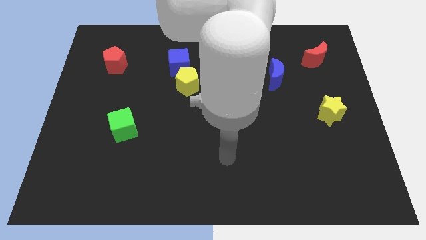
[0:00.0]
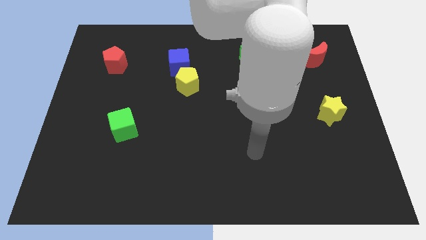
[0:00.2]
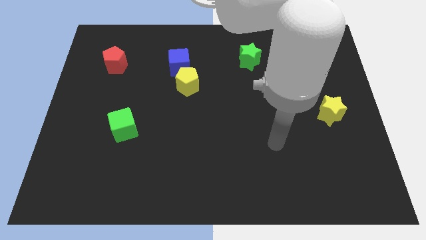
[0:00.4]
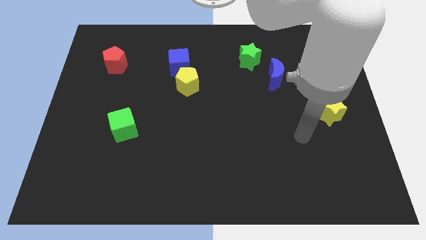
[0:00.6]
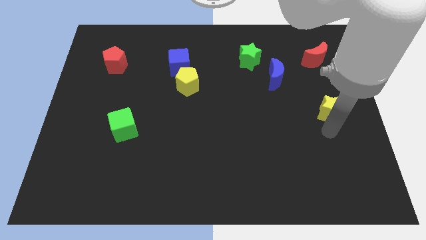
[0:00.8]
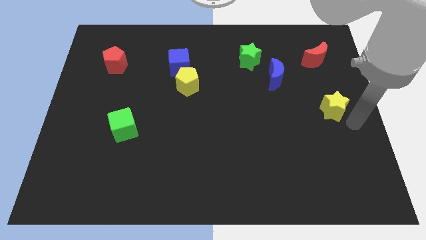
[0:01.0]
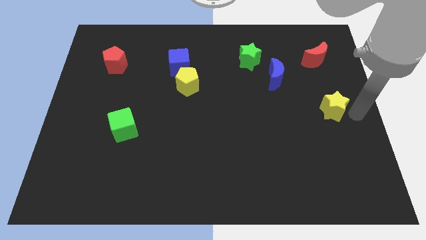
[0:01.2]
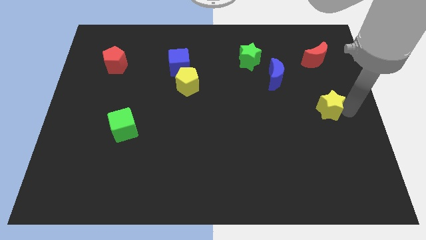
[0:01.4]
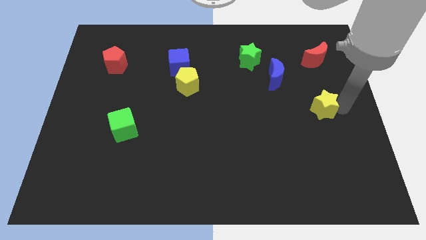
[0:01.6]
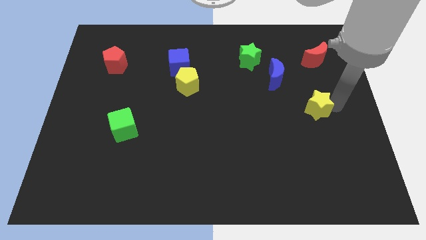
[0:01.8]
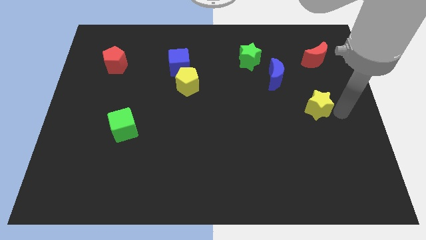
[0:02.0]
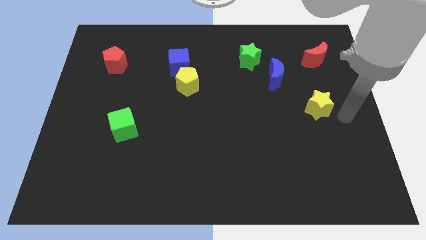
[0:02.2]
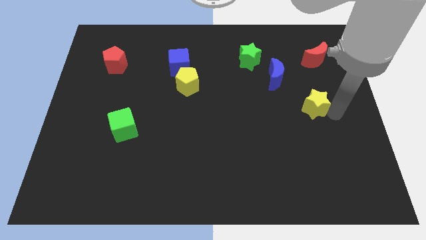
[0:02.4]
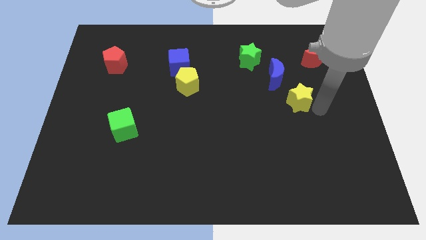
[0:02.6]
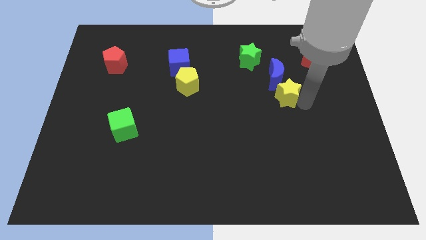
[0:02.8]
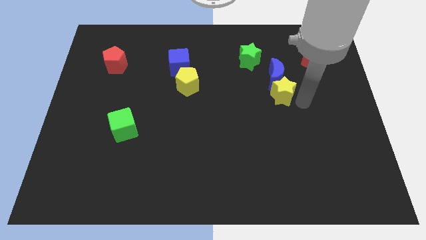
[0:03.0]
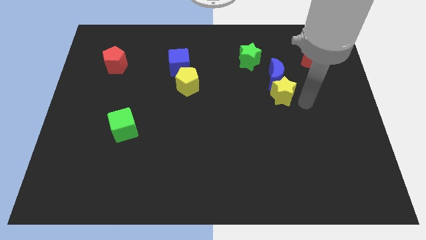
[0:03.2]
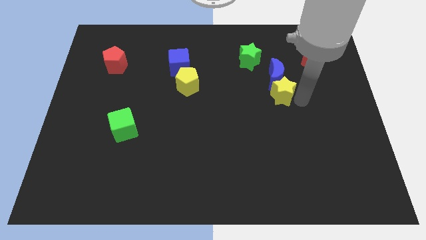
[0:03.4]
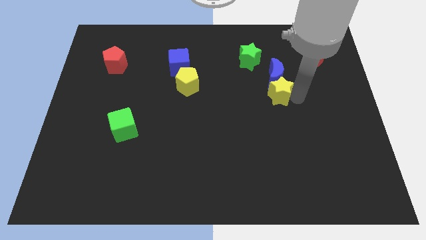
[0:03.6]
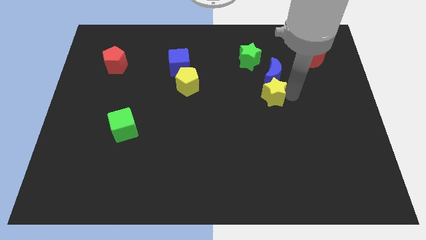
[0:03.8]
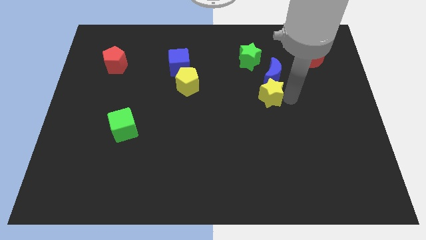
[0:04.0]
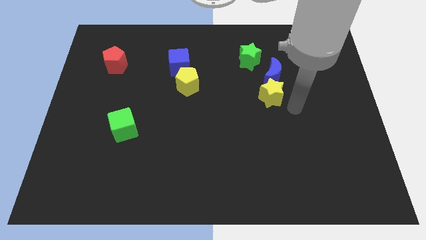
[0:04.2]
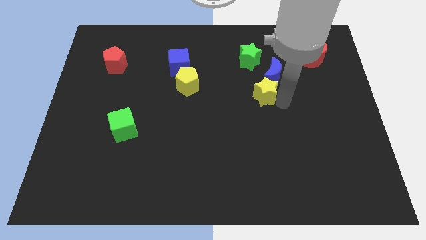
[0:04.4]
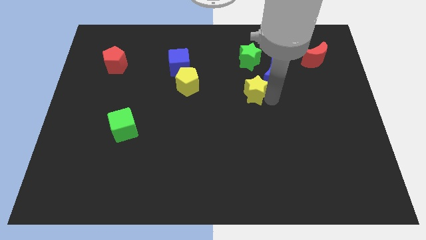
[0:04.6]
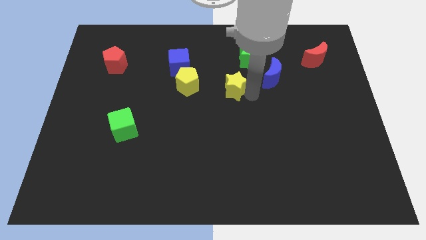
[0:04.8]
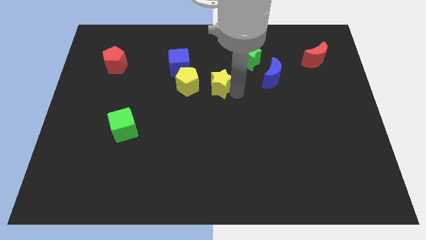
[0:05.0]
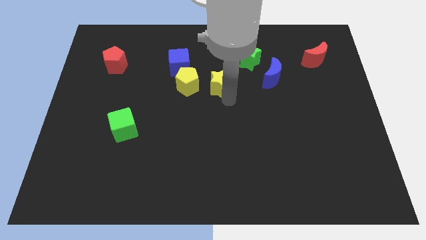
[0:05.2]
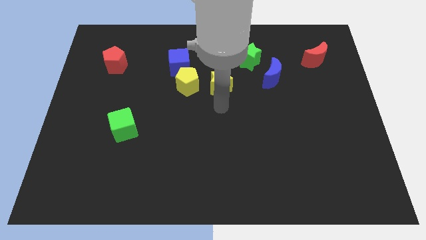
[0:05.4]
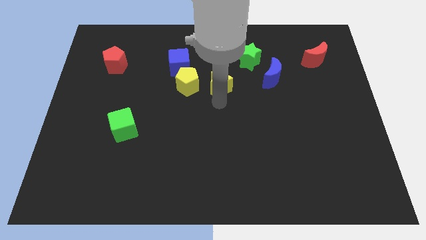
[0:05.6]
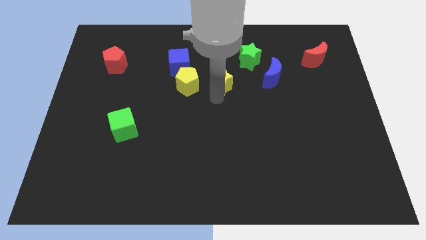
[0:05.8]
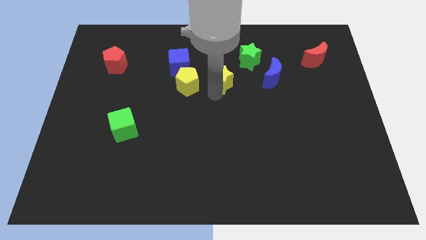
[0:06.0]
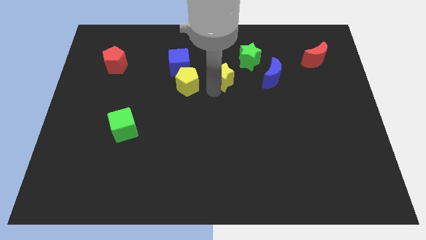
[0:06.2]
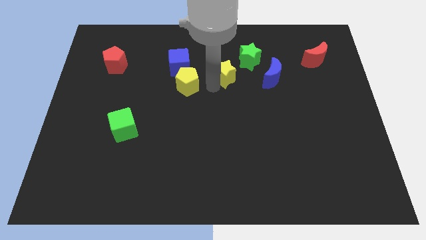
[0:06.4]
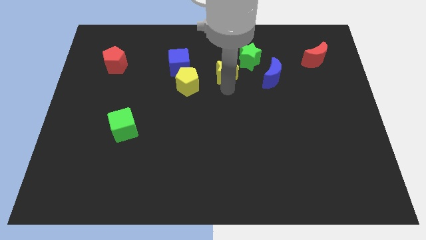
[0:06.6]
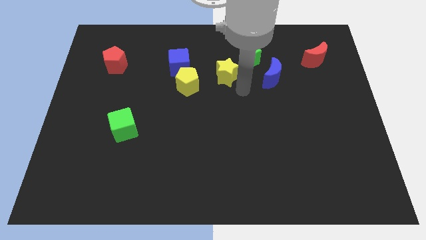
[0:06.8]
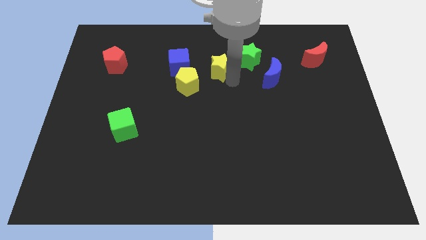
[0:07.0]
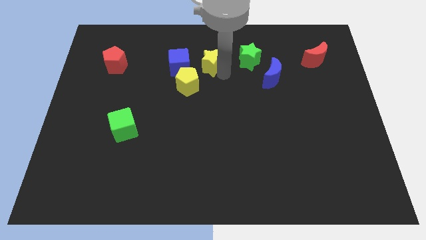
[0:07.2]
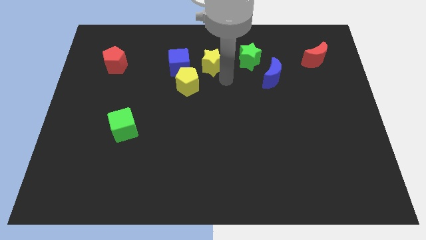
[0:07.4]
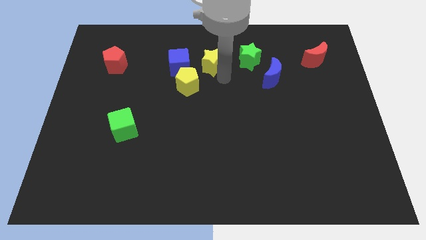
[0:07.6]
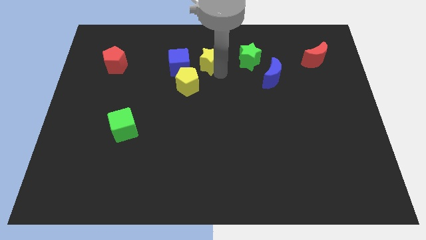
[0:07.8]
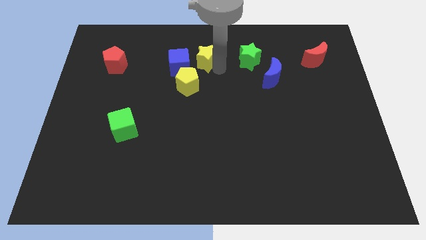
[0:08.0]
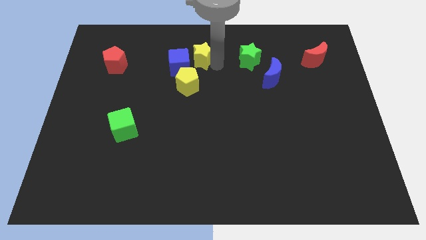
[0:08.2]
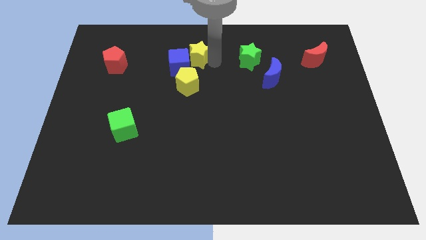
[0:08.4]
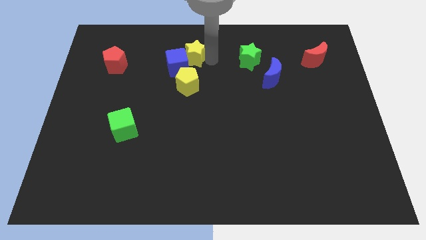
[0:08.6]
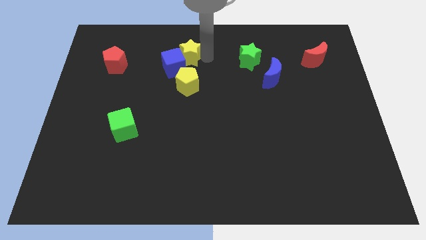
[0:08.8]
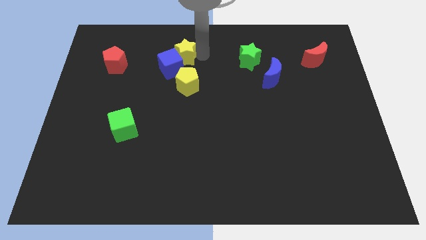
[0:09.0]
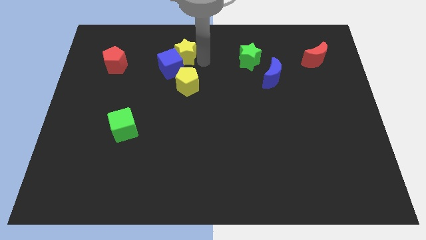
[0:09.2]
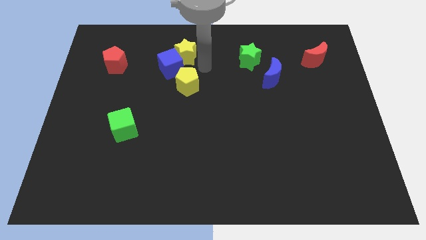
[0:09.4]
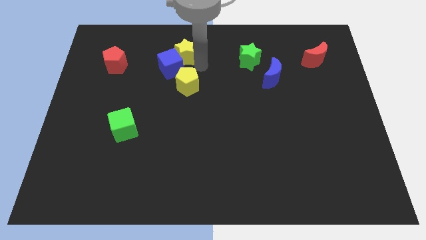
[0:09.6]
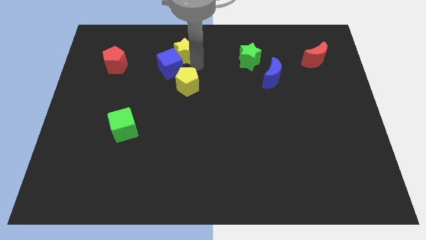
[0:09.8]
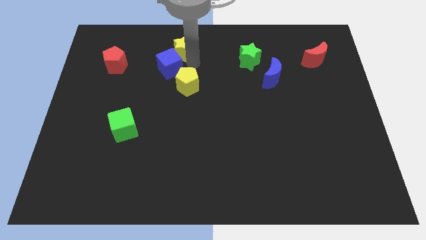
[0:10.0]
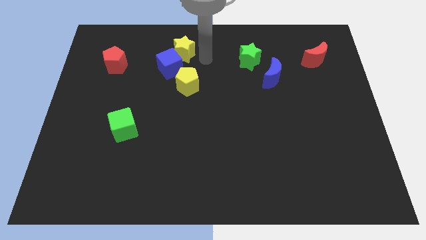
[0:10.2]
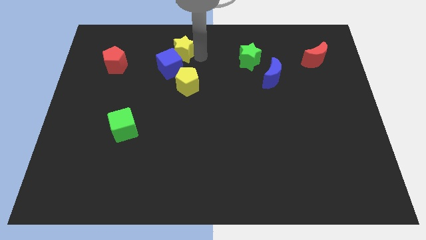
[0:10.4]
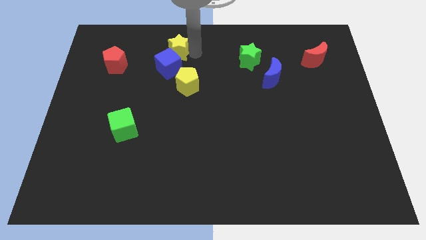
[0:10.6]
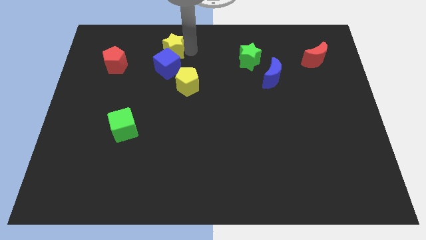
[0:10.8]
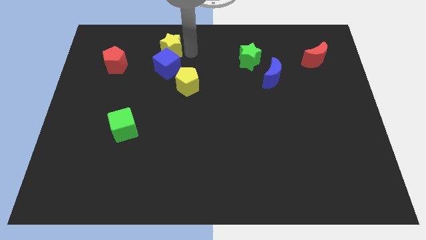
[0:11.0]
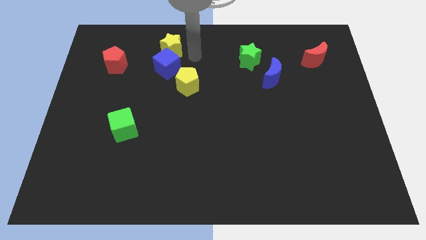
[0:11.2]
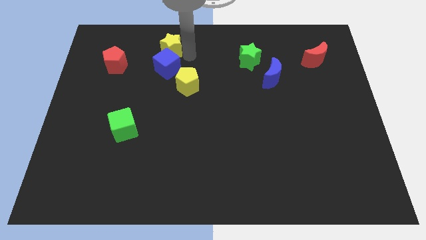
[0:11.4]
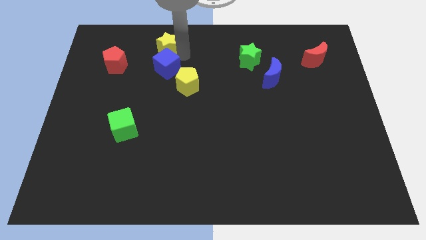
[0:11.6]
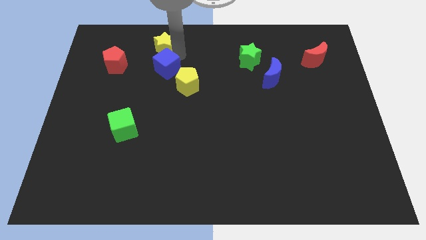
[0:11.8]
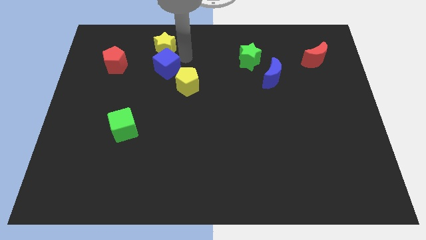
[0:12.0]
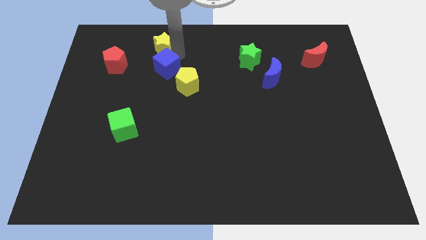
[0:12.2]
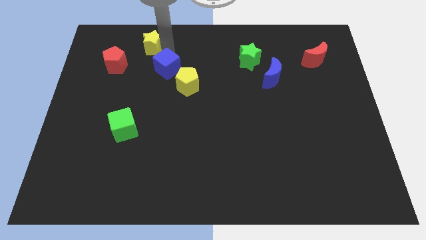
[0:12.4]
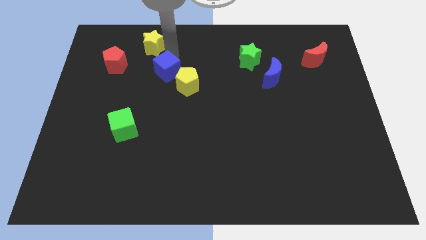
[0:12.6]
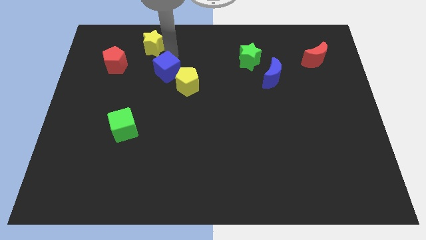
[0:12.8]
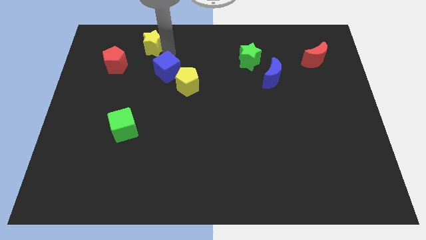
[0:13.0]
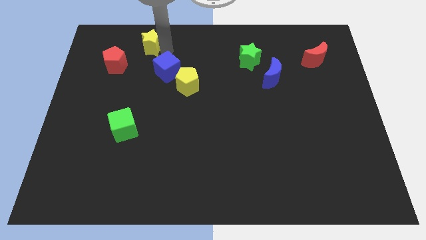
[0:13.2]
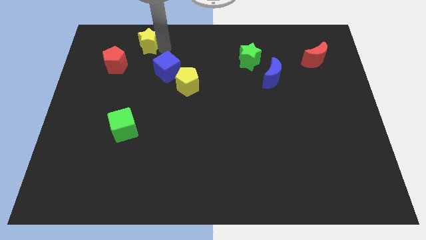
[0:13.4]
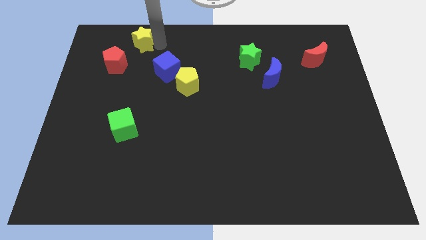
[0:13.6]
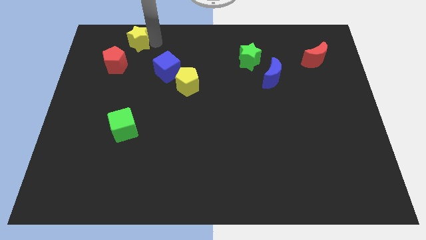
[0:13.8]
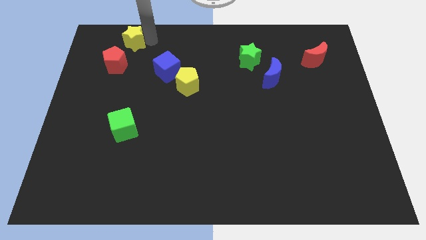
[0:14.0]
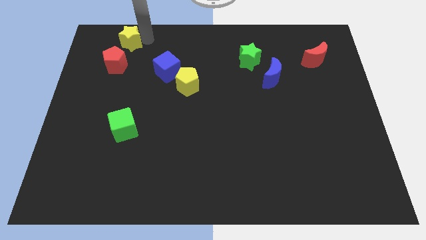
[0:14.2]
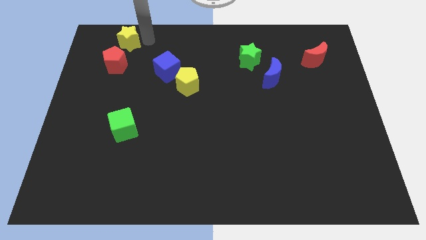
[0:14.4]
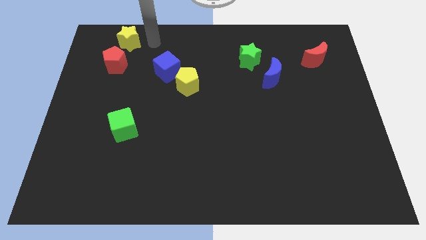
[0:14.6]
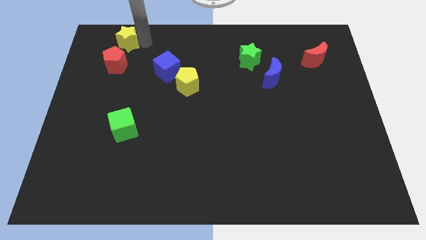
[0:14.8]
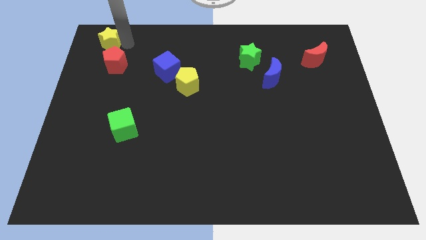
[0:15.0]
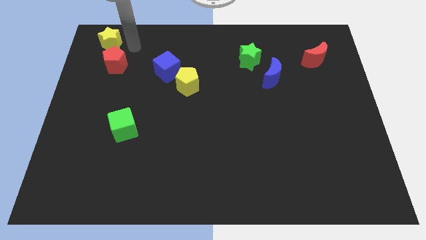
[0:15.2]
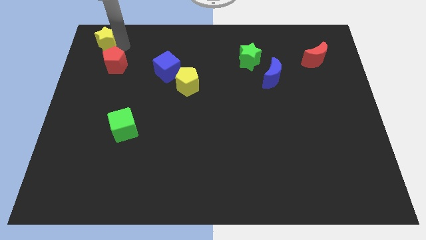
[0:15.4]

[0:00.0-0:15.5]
put the yellow star to the top left
